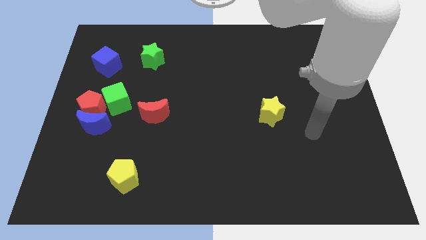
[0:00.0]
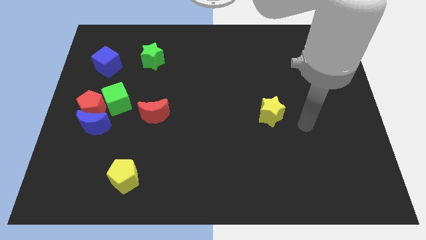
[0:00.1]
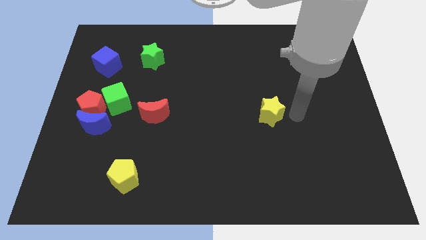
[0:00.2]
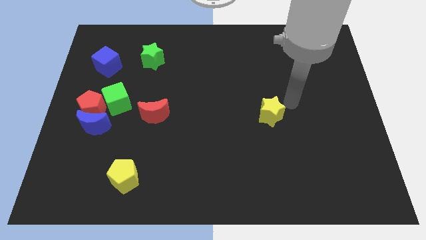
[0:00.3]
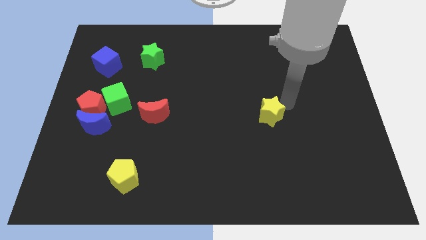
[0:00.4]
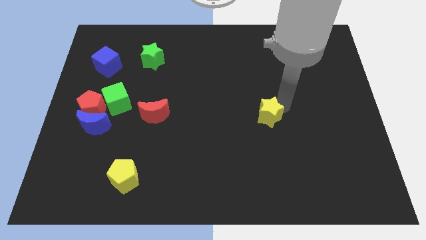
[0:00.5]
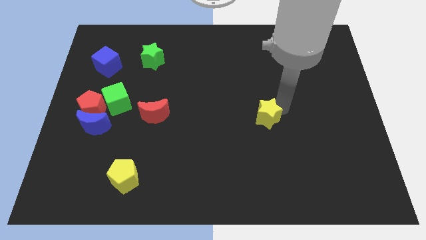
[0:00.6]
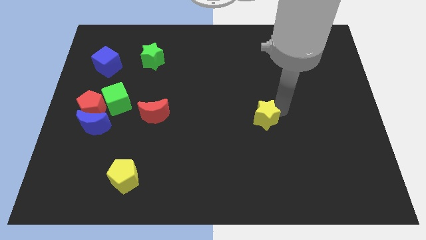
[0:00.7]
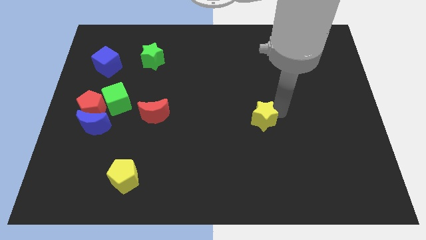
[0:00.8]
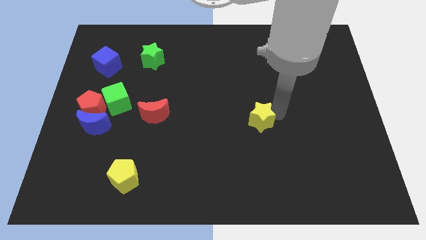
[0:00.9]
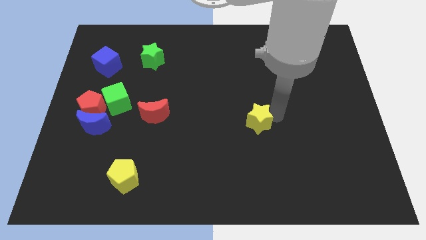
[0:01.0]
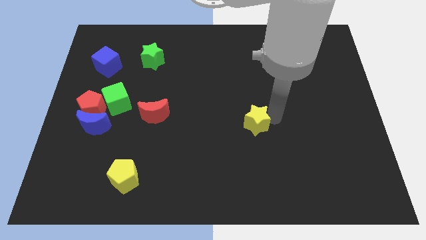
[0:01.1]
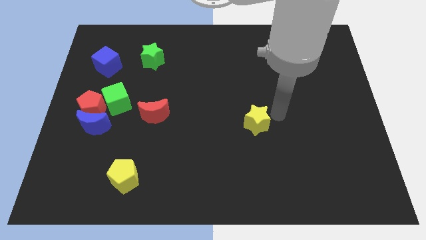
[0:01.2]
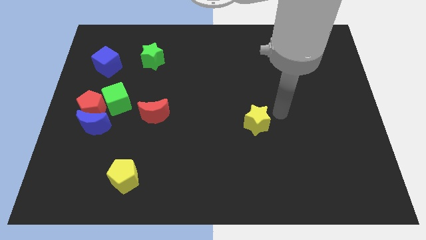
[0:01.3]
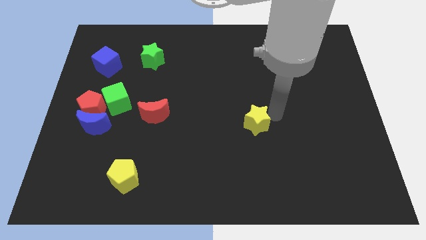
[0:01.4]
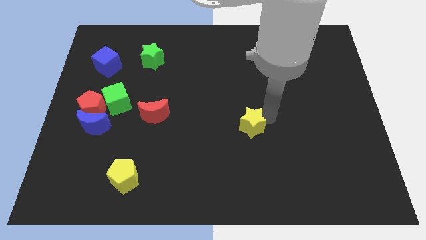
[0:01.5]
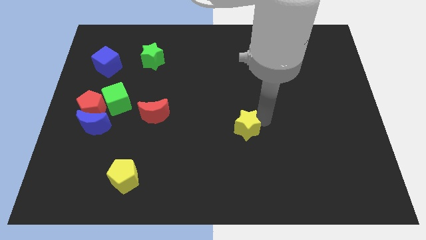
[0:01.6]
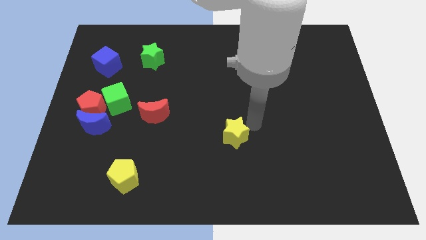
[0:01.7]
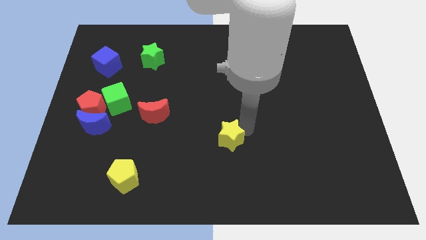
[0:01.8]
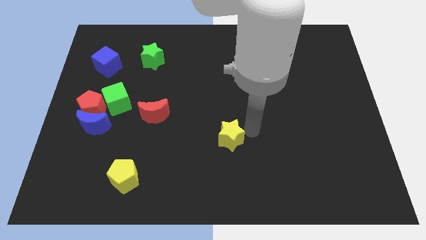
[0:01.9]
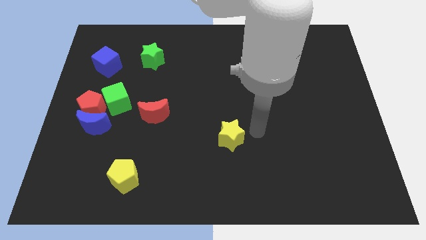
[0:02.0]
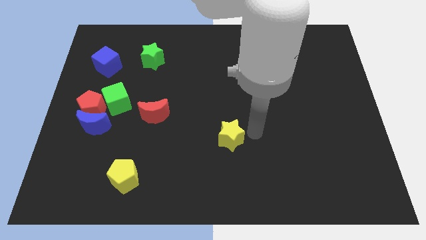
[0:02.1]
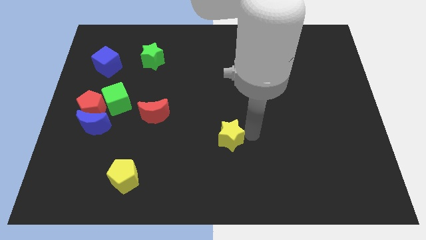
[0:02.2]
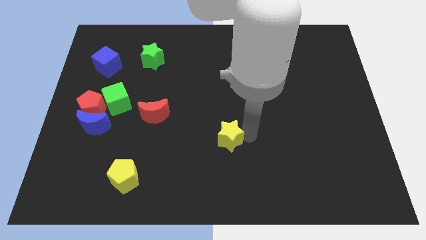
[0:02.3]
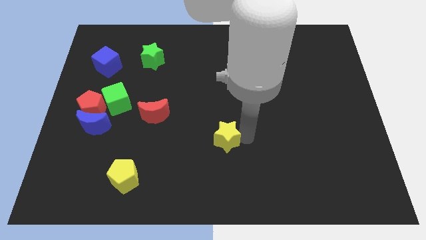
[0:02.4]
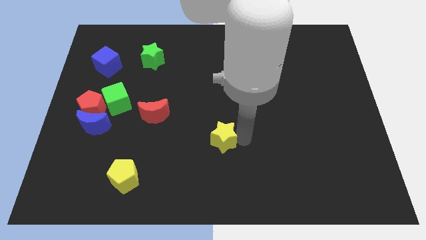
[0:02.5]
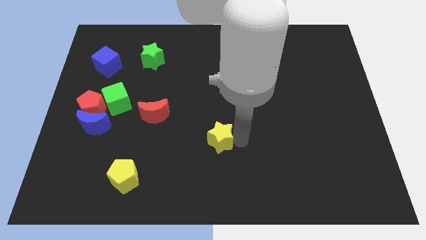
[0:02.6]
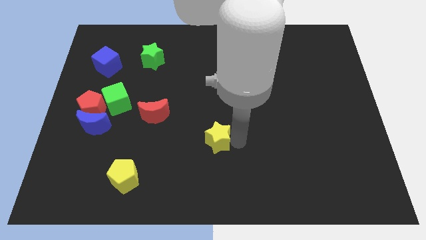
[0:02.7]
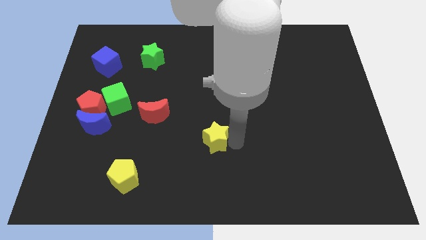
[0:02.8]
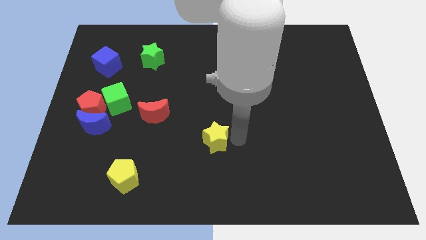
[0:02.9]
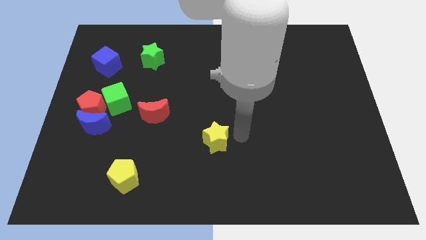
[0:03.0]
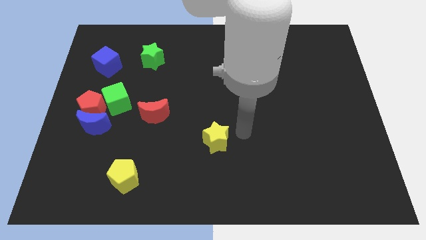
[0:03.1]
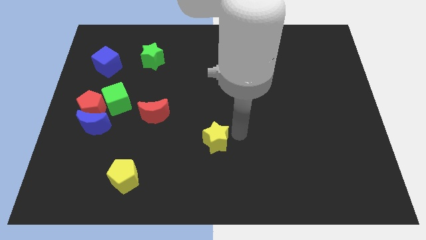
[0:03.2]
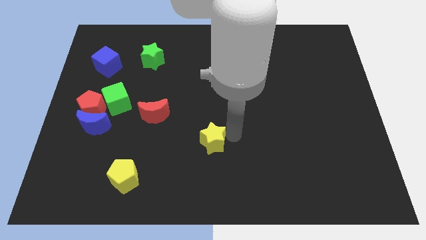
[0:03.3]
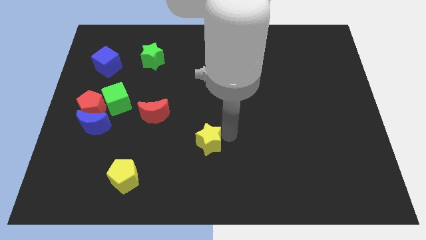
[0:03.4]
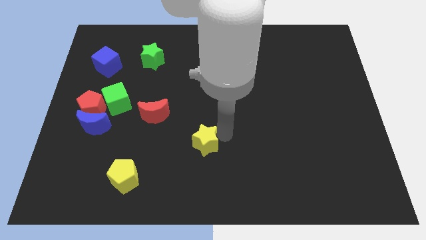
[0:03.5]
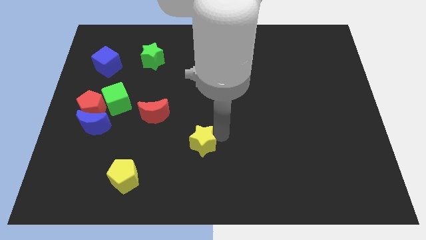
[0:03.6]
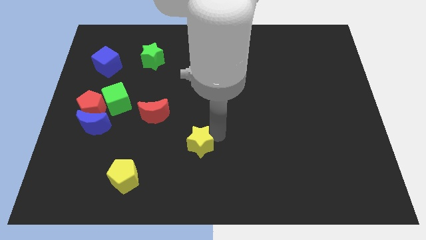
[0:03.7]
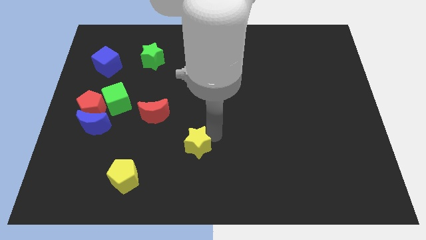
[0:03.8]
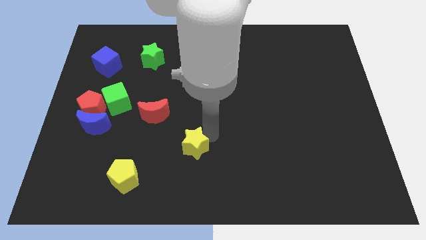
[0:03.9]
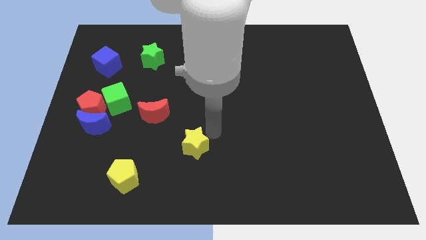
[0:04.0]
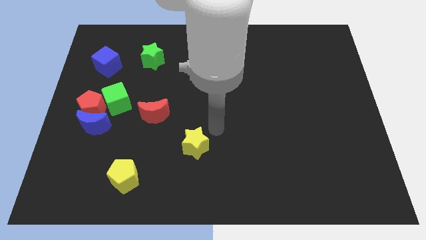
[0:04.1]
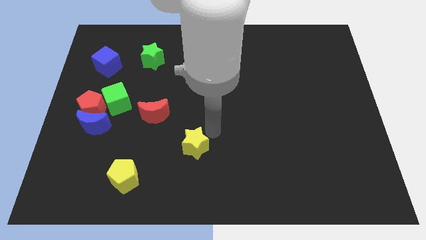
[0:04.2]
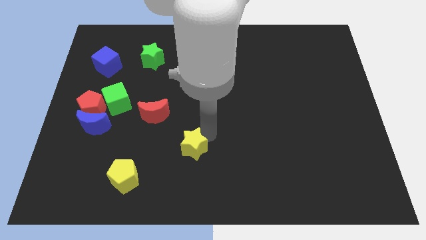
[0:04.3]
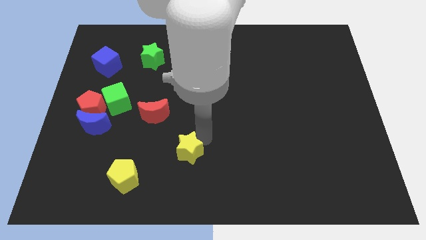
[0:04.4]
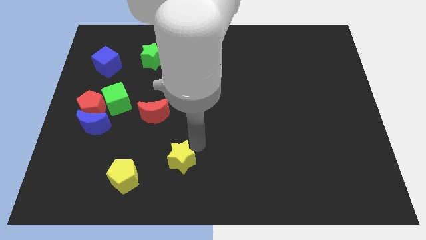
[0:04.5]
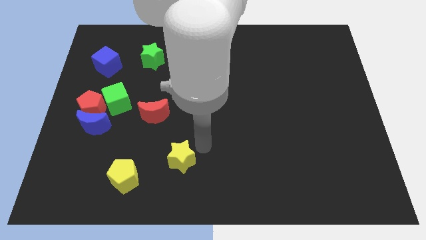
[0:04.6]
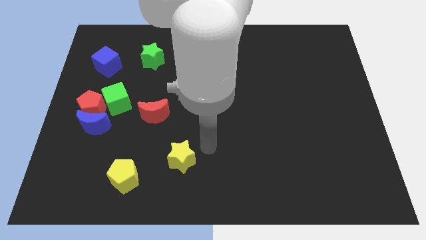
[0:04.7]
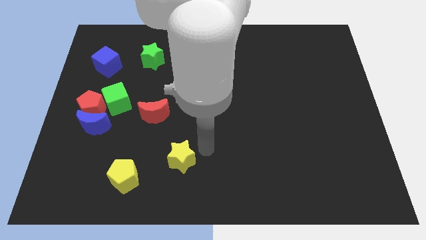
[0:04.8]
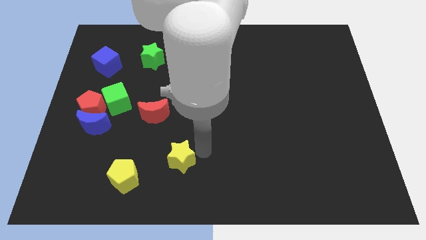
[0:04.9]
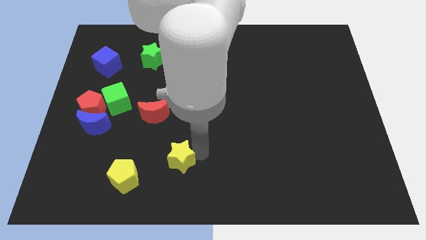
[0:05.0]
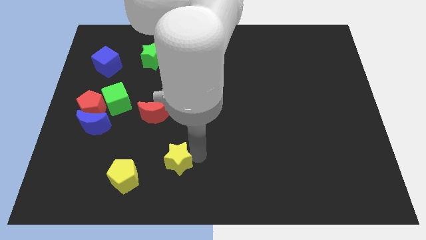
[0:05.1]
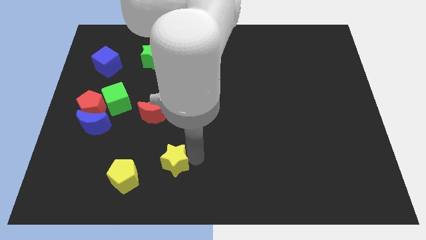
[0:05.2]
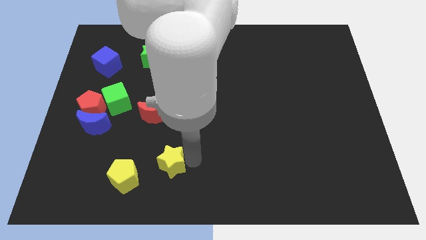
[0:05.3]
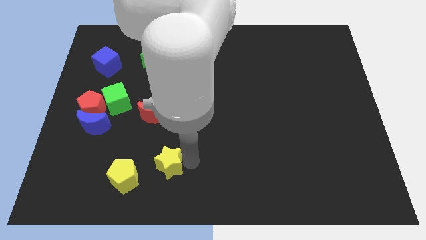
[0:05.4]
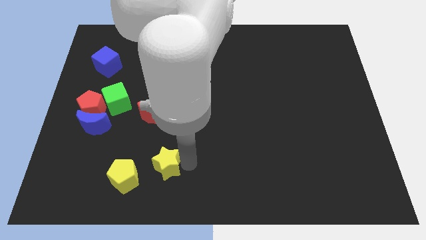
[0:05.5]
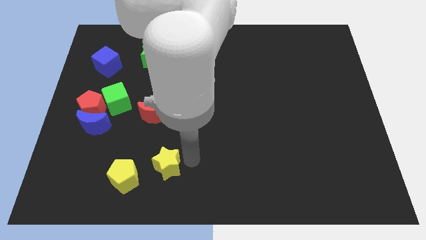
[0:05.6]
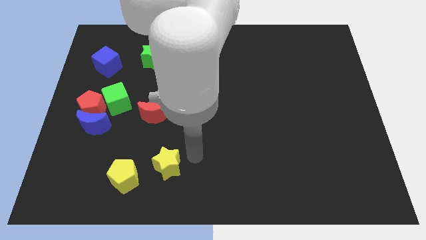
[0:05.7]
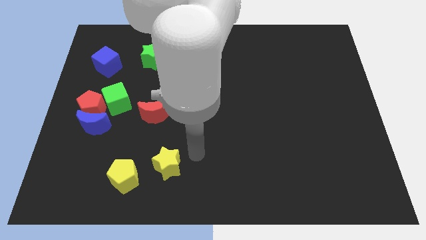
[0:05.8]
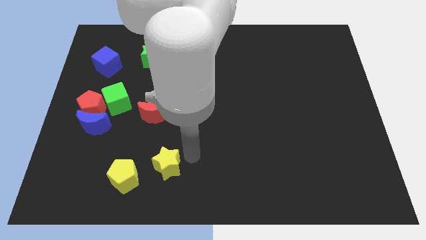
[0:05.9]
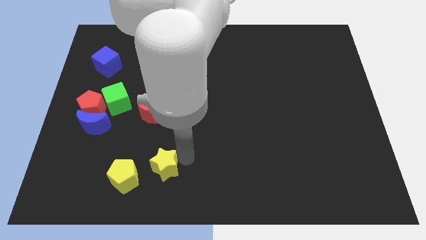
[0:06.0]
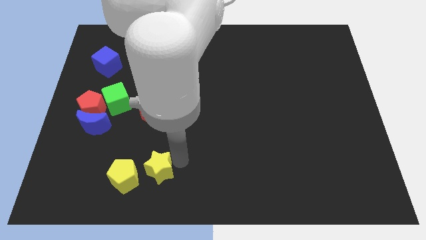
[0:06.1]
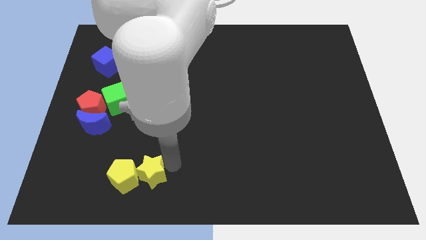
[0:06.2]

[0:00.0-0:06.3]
slide the yellow star towards the yellow pentagon
